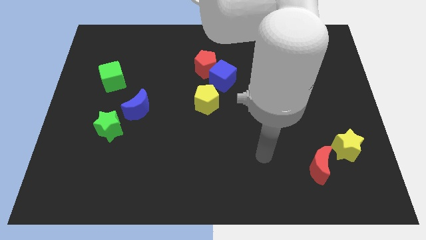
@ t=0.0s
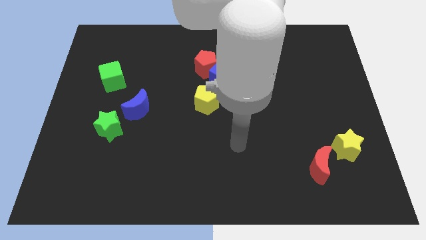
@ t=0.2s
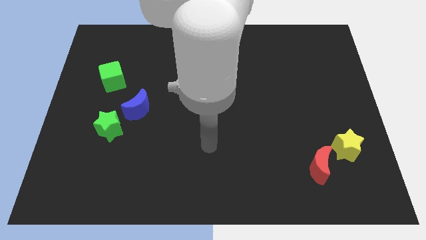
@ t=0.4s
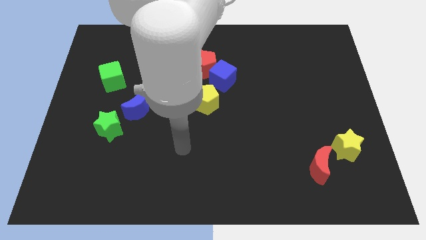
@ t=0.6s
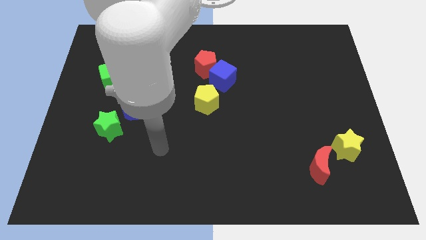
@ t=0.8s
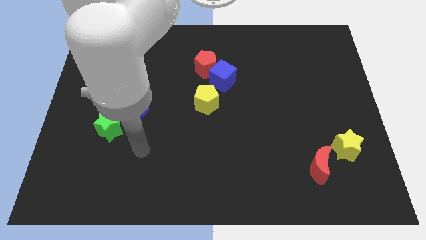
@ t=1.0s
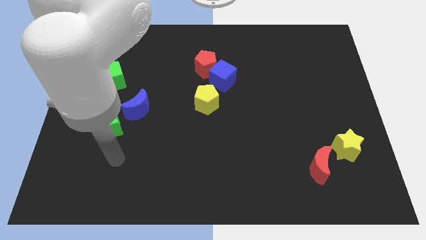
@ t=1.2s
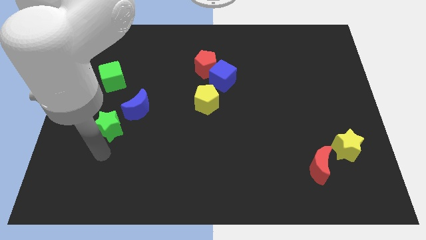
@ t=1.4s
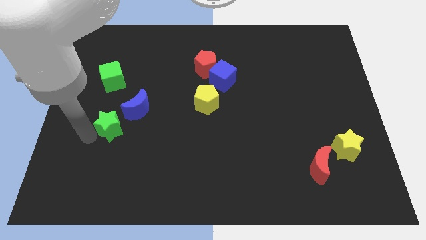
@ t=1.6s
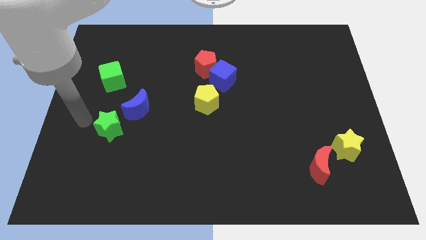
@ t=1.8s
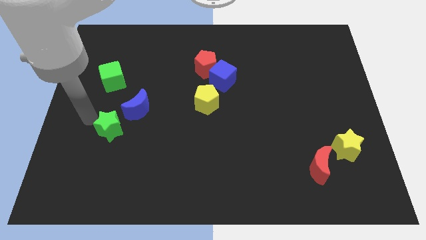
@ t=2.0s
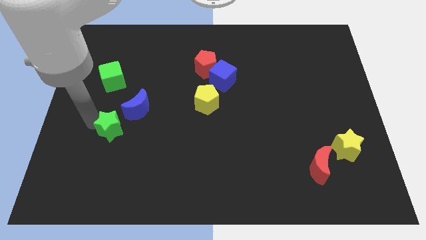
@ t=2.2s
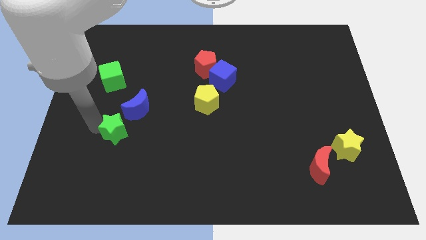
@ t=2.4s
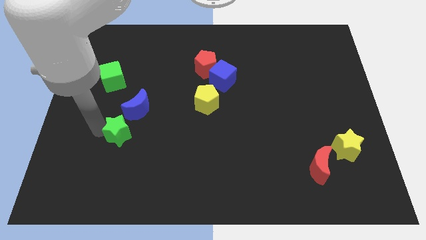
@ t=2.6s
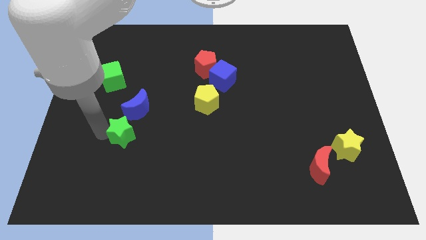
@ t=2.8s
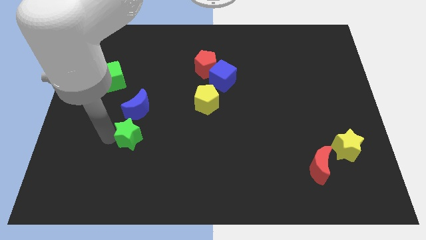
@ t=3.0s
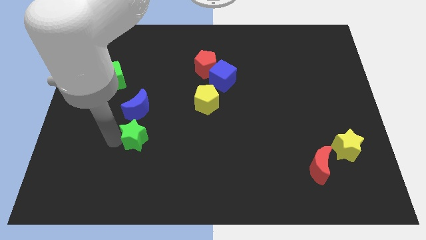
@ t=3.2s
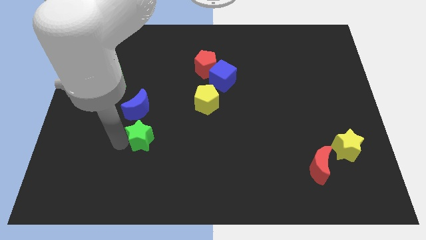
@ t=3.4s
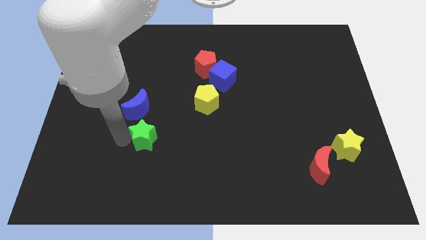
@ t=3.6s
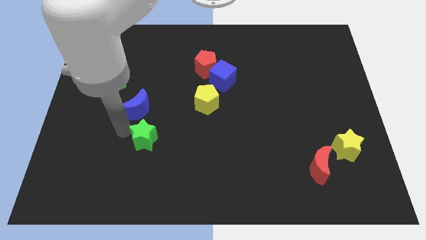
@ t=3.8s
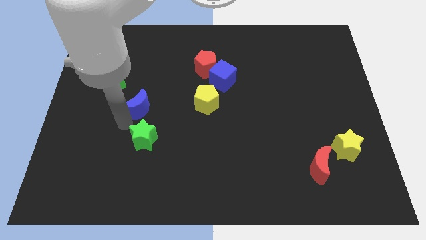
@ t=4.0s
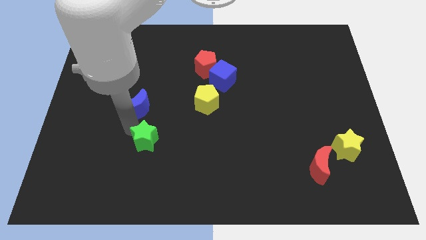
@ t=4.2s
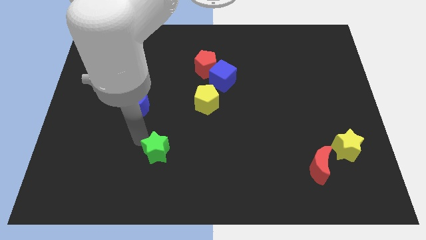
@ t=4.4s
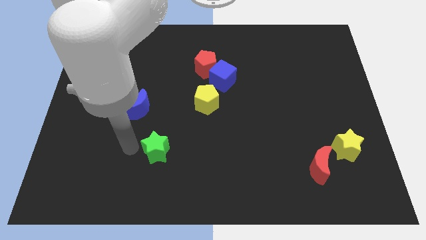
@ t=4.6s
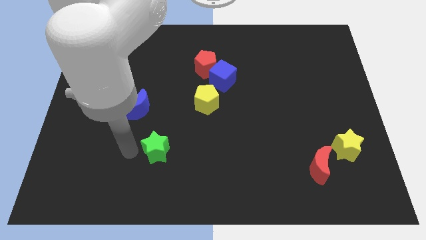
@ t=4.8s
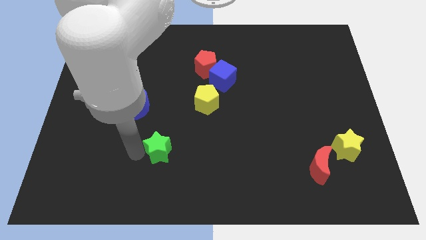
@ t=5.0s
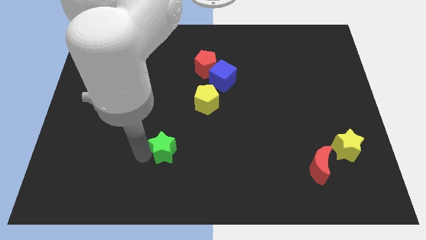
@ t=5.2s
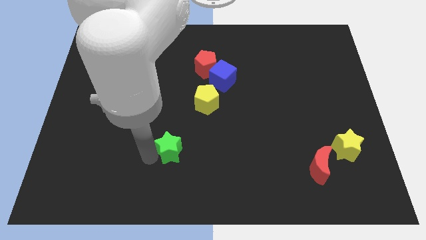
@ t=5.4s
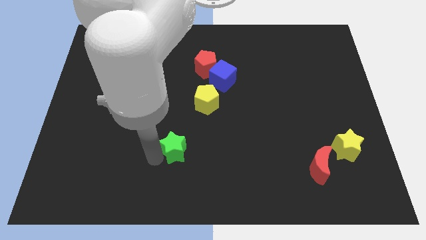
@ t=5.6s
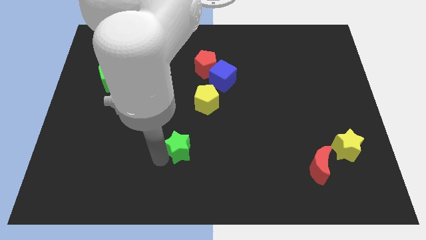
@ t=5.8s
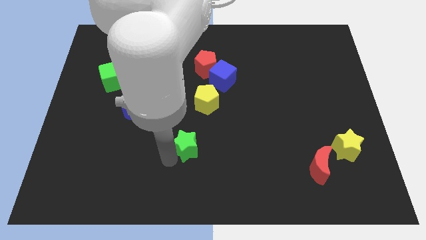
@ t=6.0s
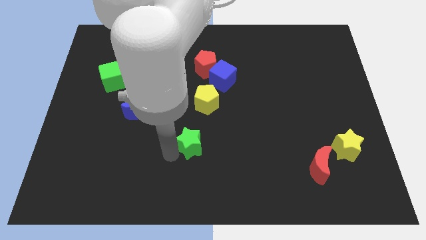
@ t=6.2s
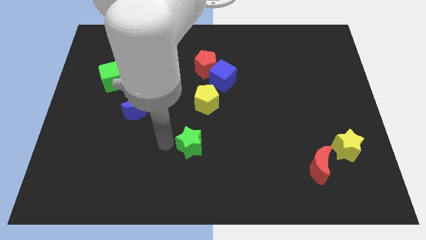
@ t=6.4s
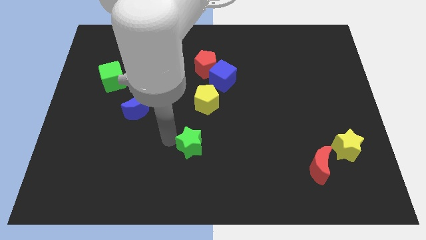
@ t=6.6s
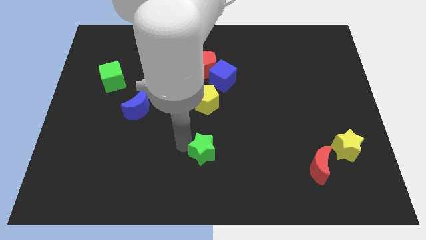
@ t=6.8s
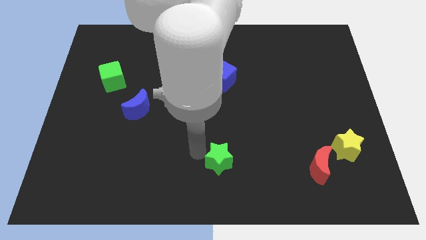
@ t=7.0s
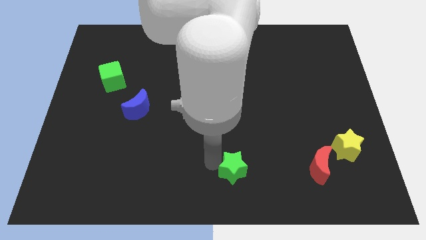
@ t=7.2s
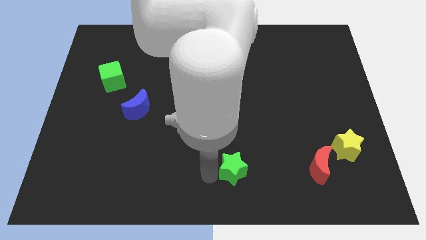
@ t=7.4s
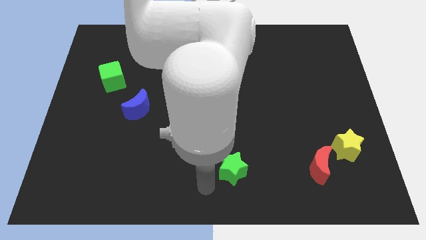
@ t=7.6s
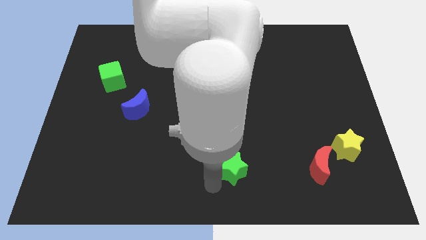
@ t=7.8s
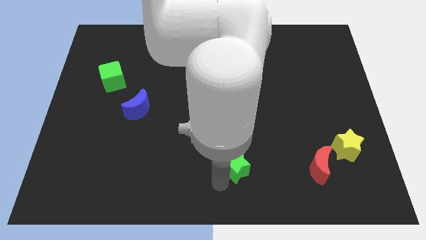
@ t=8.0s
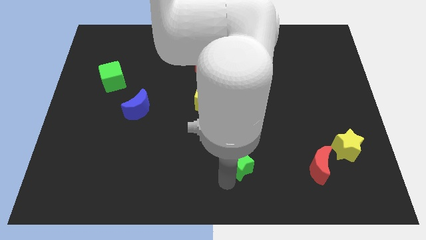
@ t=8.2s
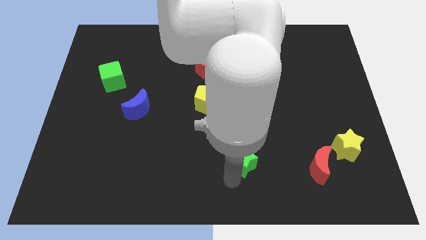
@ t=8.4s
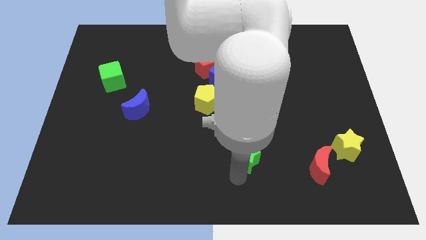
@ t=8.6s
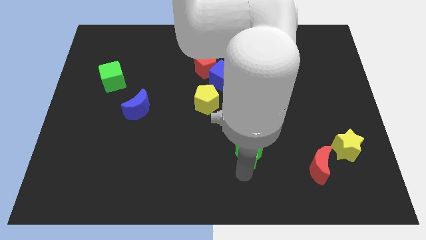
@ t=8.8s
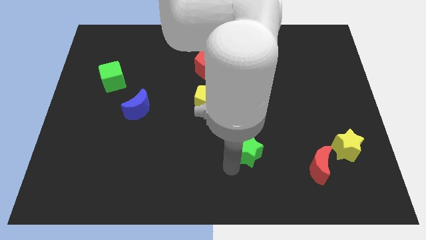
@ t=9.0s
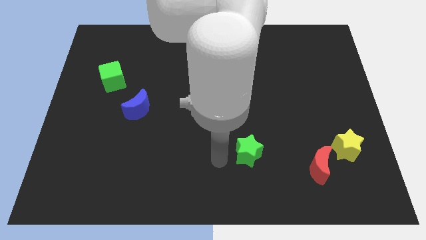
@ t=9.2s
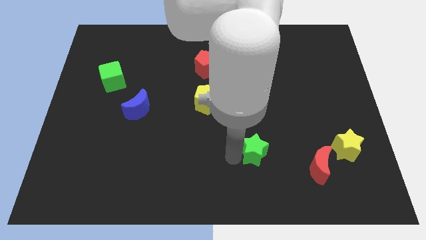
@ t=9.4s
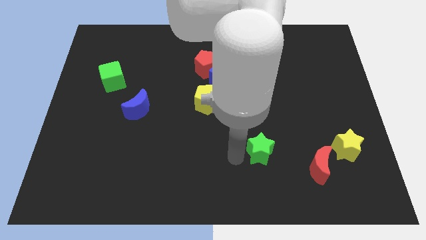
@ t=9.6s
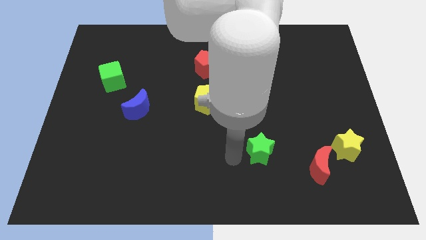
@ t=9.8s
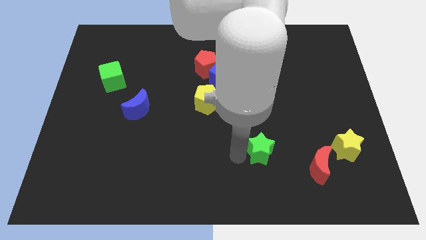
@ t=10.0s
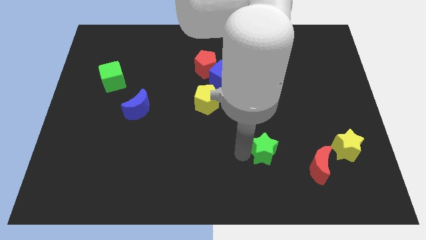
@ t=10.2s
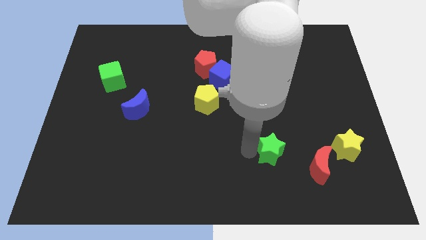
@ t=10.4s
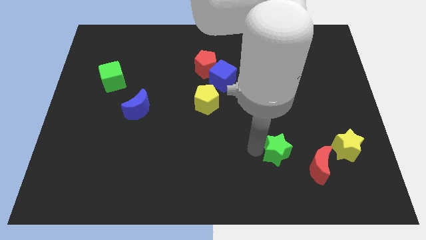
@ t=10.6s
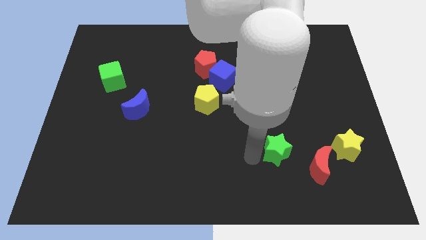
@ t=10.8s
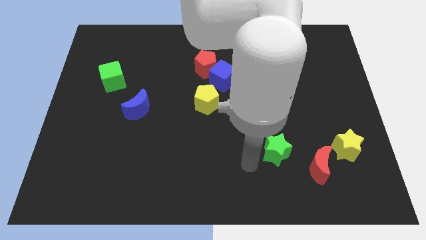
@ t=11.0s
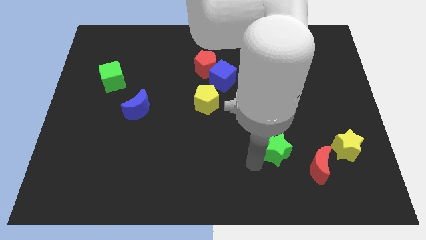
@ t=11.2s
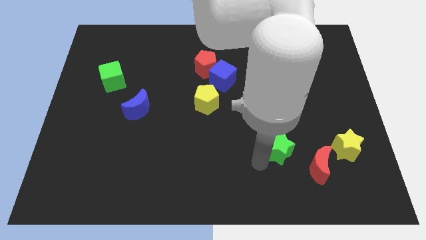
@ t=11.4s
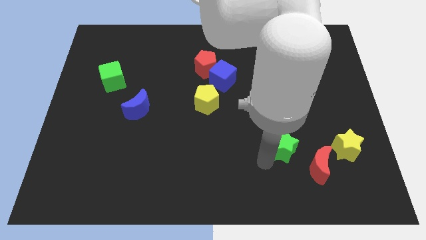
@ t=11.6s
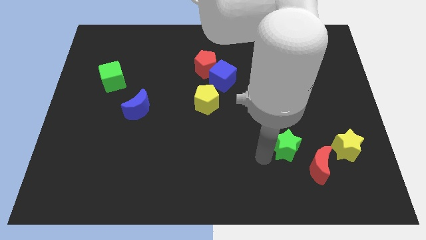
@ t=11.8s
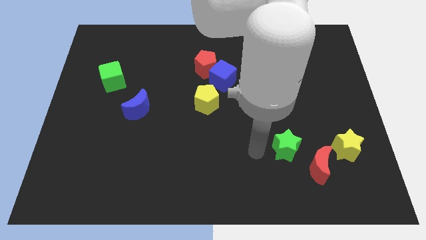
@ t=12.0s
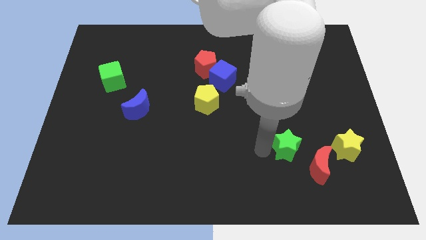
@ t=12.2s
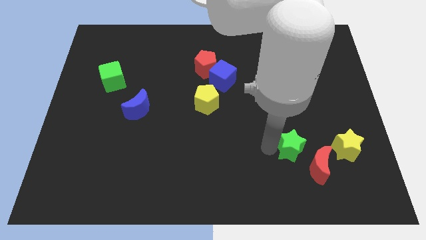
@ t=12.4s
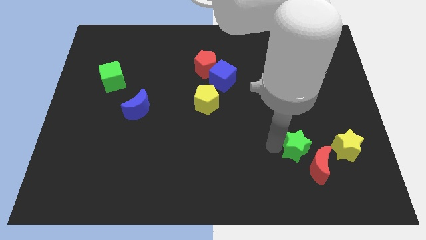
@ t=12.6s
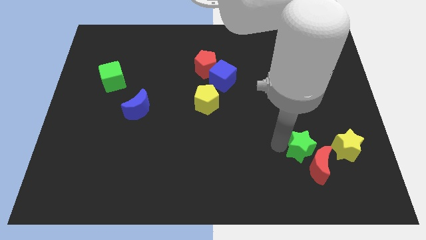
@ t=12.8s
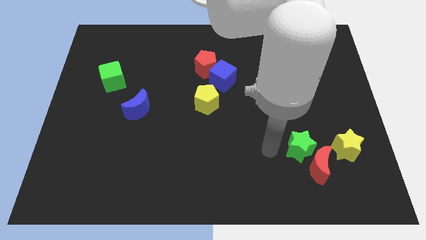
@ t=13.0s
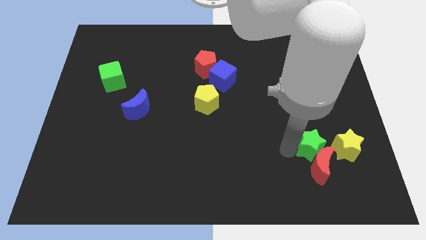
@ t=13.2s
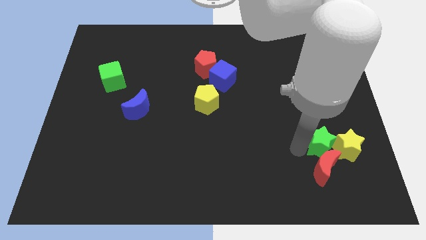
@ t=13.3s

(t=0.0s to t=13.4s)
put the green star close to the yellow star
